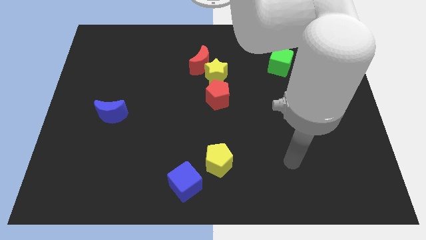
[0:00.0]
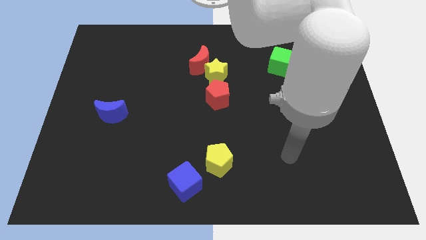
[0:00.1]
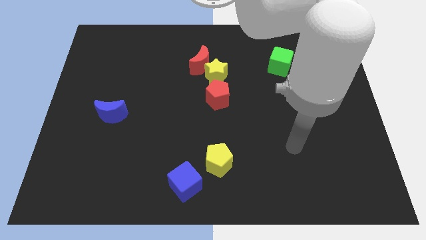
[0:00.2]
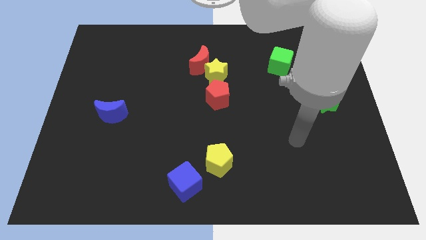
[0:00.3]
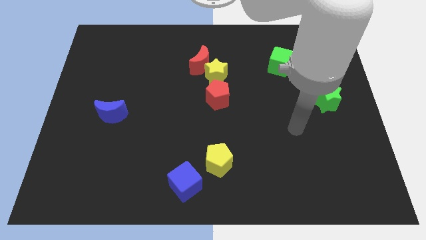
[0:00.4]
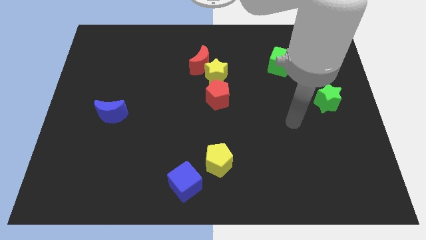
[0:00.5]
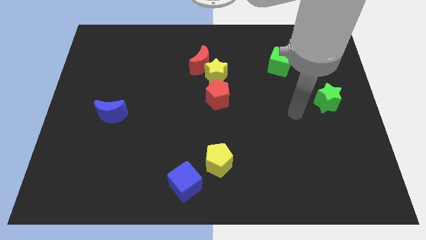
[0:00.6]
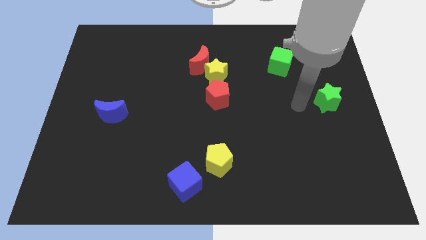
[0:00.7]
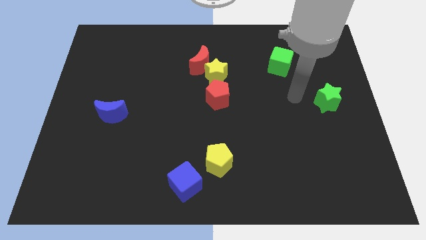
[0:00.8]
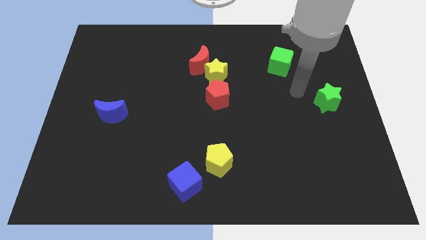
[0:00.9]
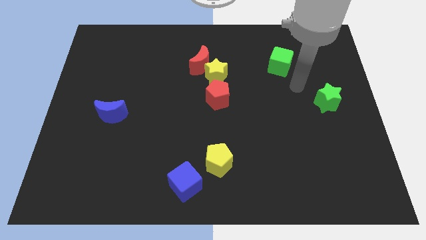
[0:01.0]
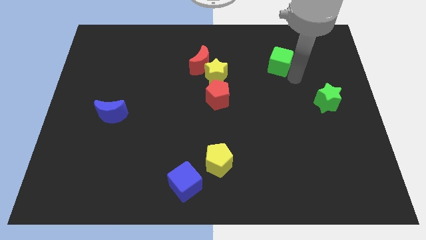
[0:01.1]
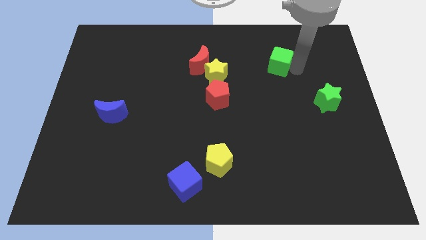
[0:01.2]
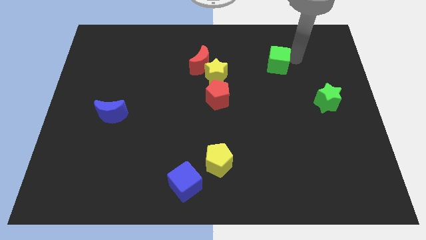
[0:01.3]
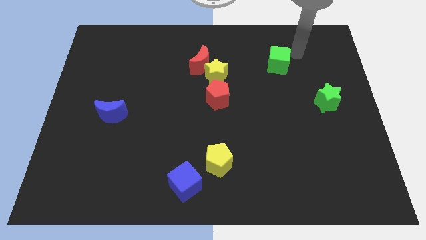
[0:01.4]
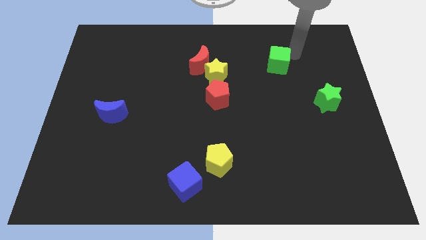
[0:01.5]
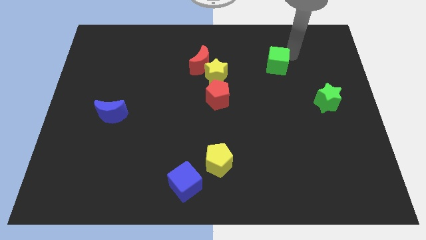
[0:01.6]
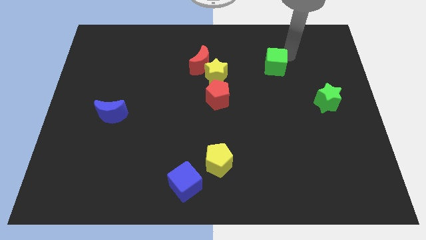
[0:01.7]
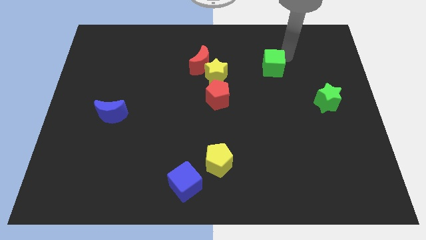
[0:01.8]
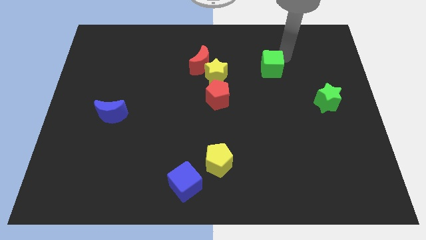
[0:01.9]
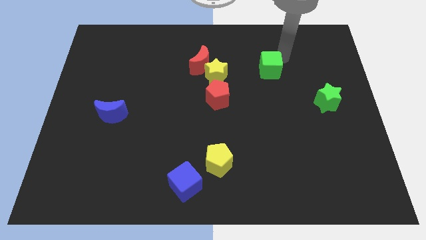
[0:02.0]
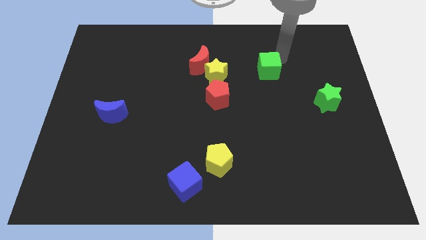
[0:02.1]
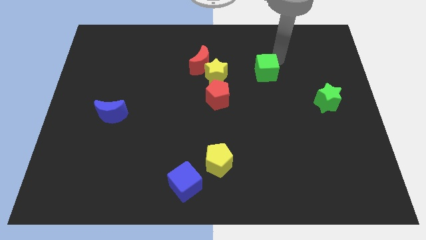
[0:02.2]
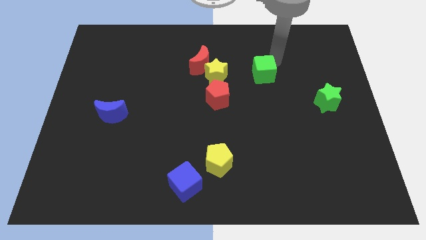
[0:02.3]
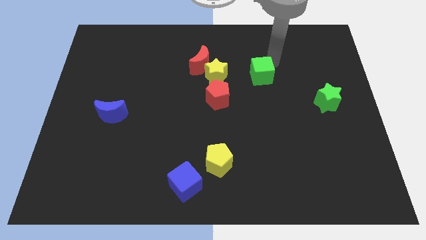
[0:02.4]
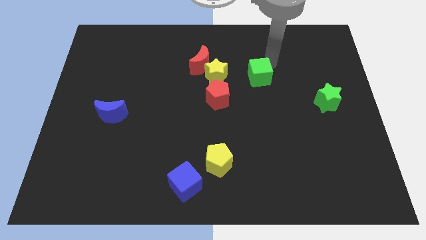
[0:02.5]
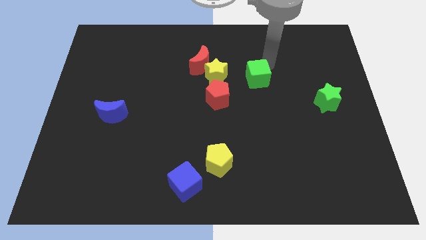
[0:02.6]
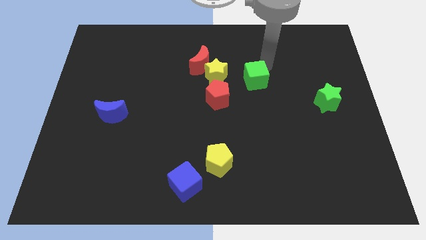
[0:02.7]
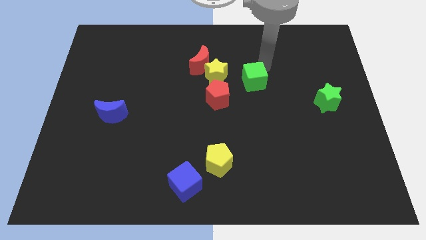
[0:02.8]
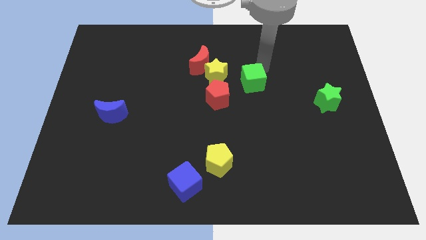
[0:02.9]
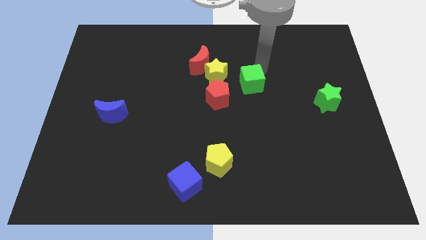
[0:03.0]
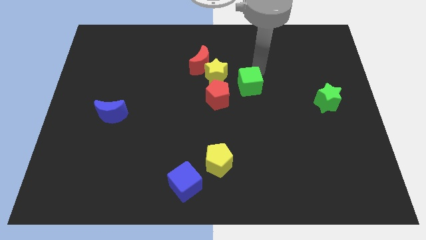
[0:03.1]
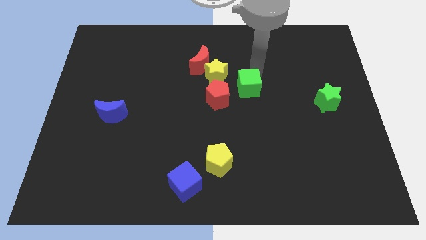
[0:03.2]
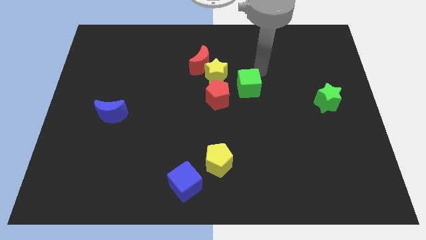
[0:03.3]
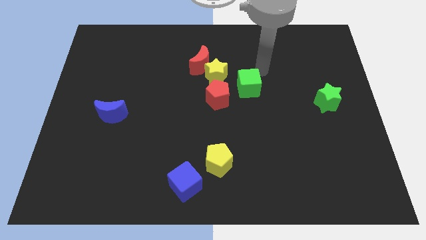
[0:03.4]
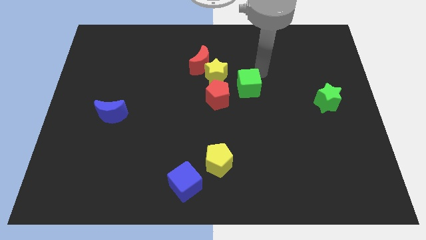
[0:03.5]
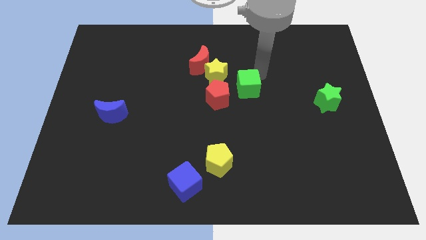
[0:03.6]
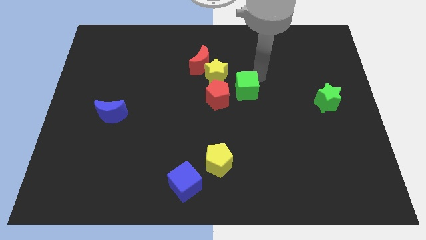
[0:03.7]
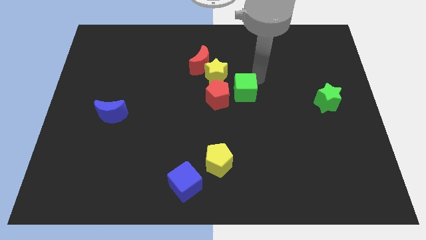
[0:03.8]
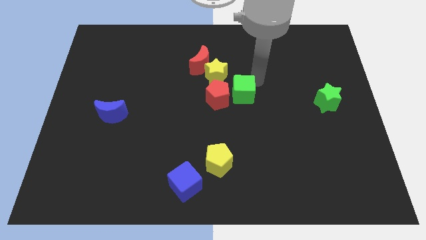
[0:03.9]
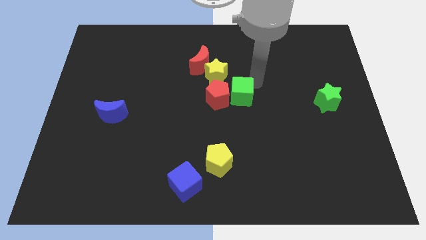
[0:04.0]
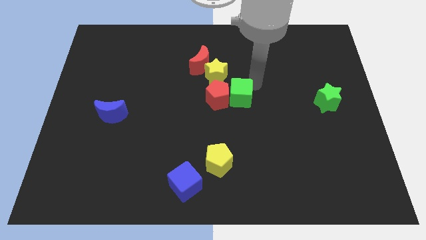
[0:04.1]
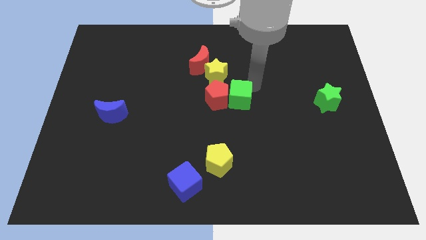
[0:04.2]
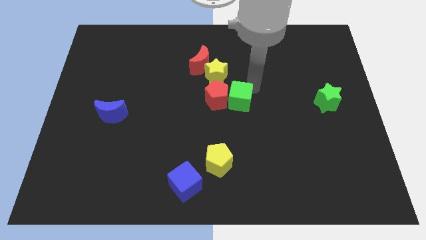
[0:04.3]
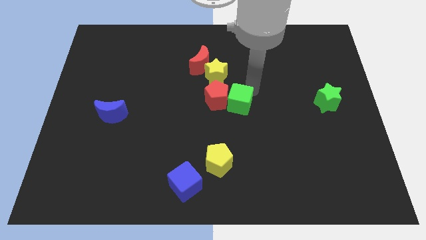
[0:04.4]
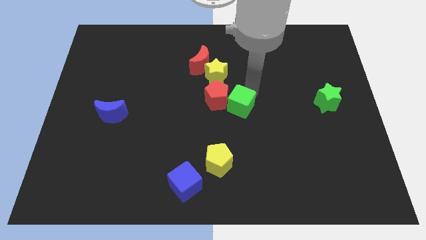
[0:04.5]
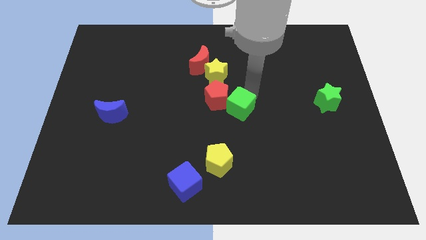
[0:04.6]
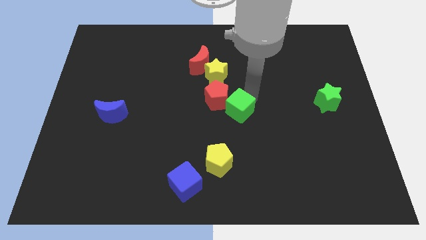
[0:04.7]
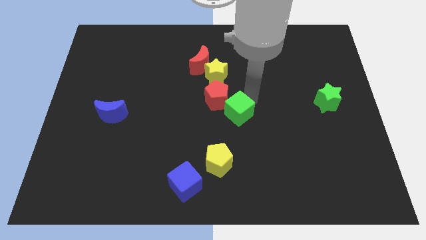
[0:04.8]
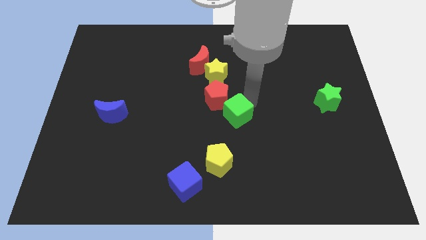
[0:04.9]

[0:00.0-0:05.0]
move the green cube above the yellow pentagon

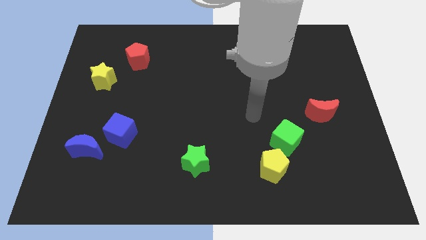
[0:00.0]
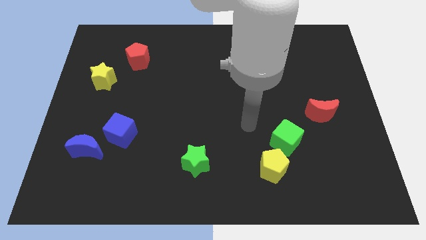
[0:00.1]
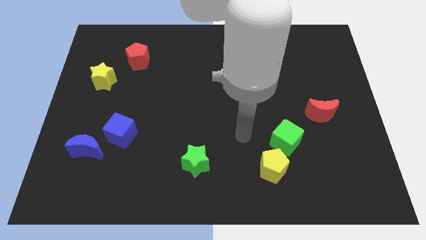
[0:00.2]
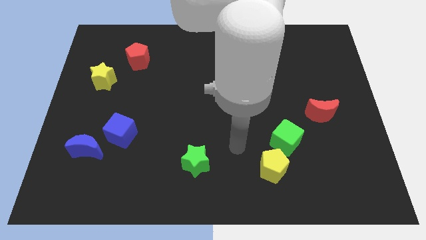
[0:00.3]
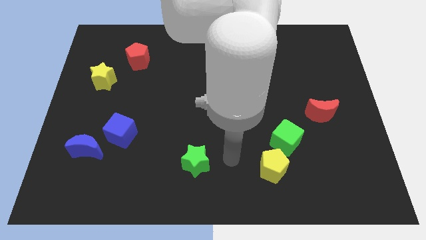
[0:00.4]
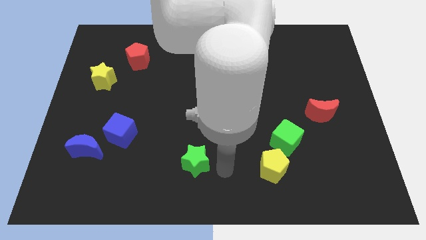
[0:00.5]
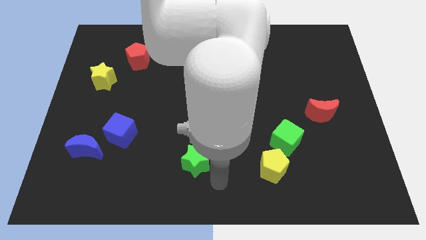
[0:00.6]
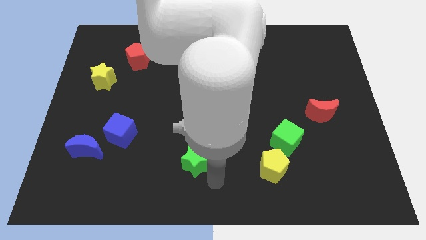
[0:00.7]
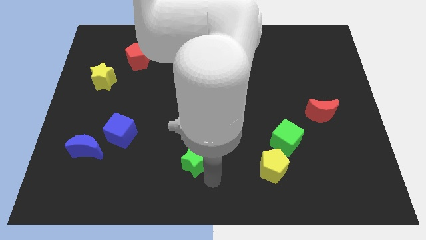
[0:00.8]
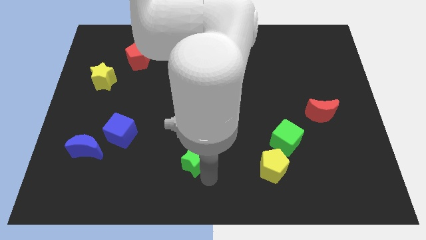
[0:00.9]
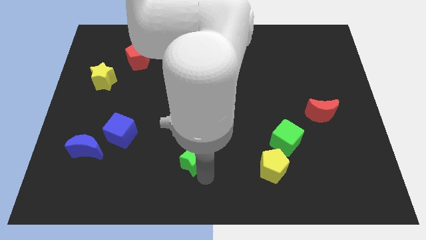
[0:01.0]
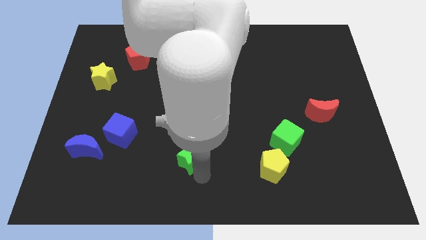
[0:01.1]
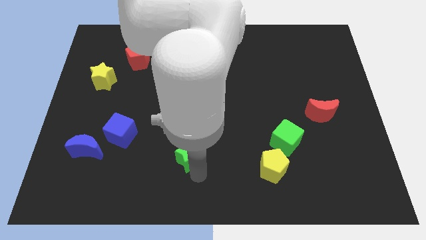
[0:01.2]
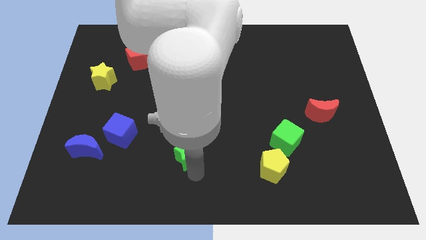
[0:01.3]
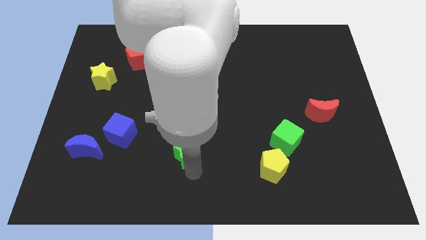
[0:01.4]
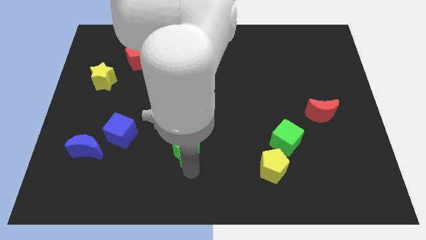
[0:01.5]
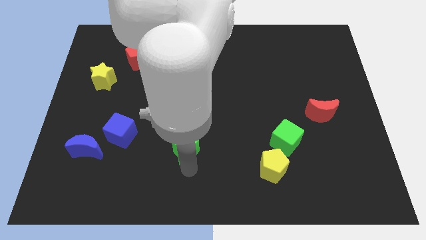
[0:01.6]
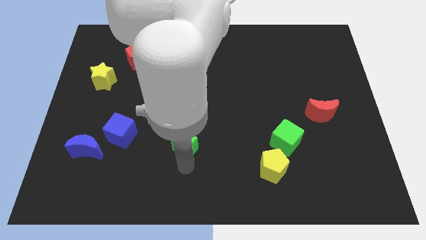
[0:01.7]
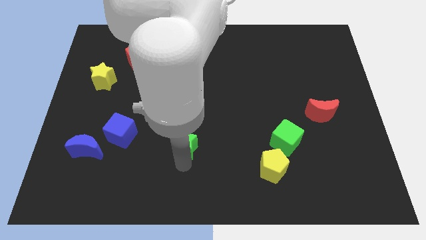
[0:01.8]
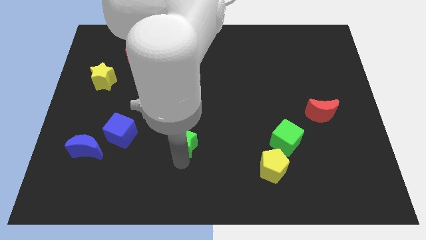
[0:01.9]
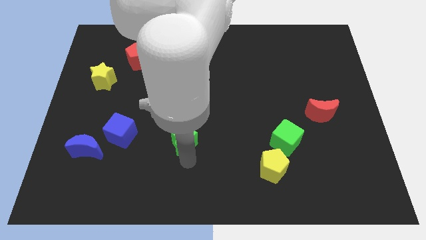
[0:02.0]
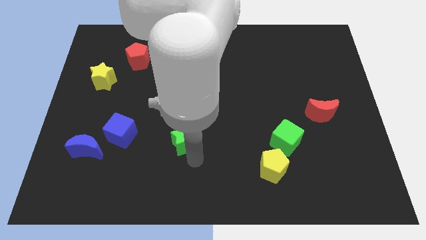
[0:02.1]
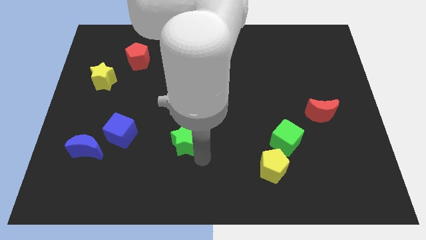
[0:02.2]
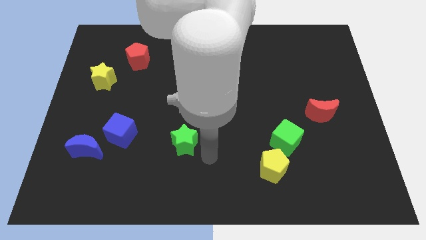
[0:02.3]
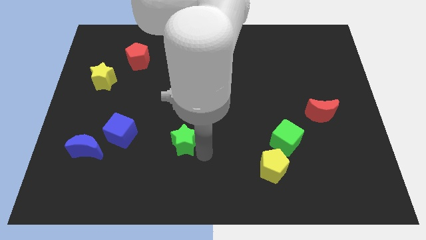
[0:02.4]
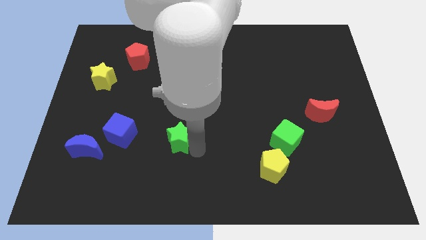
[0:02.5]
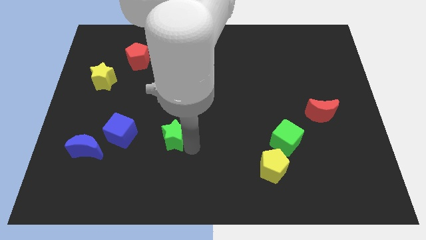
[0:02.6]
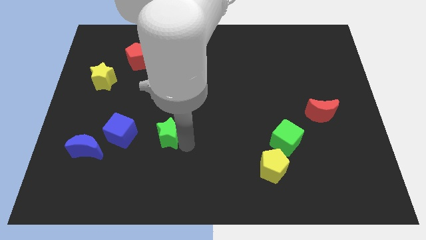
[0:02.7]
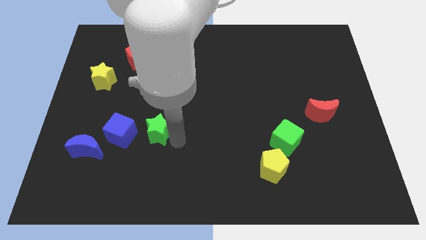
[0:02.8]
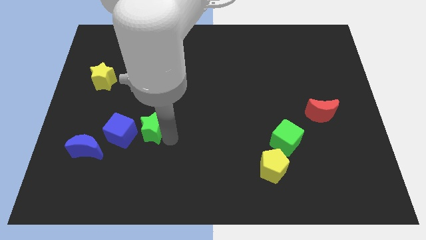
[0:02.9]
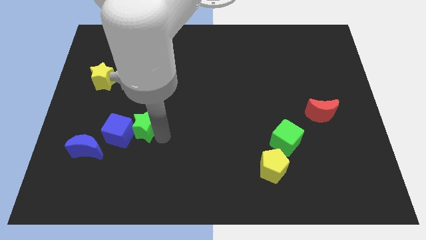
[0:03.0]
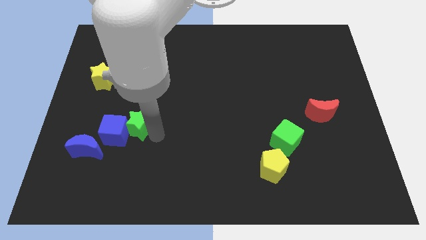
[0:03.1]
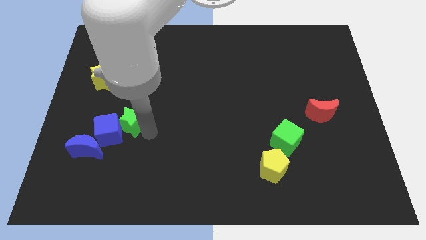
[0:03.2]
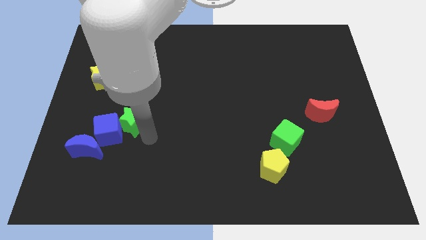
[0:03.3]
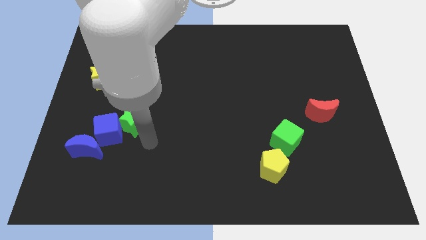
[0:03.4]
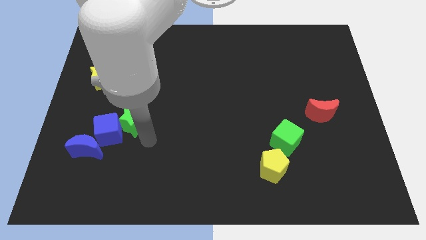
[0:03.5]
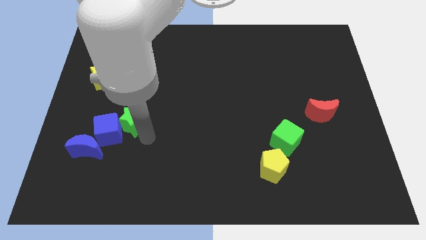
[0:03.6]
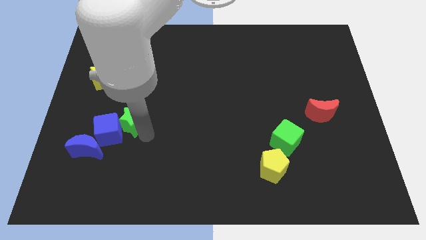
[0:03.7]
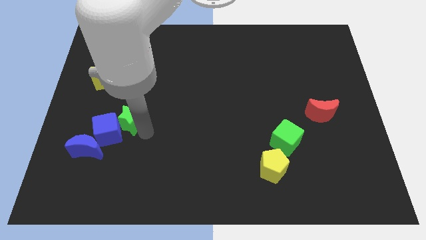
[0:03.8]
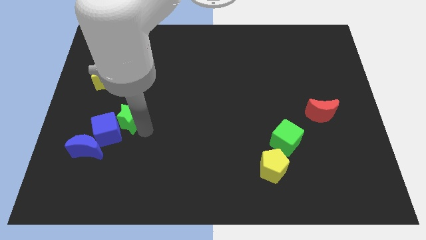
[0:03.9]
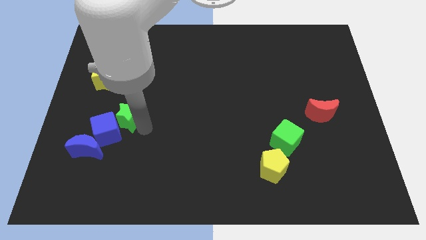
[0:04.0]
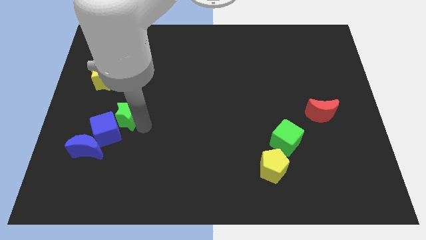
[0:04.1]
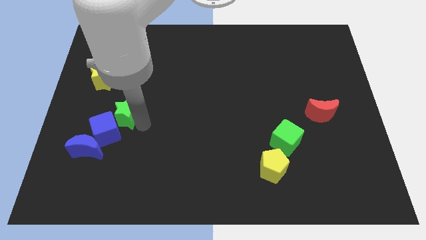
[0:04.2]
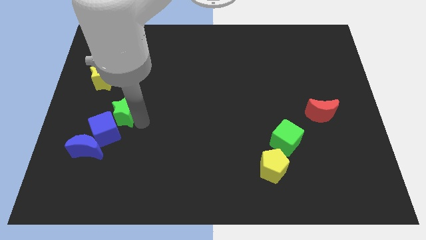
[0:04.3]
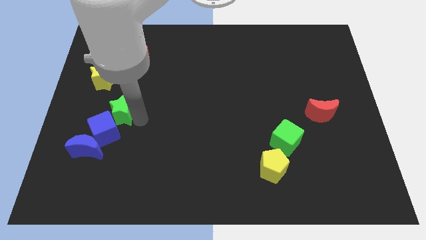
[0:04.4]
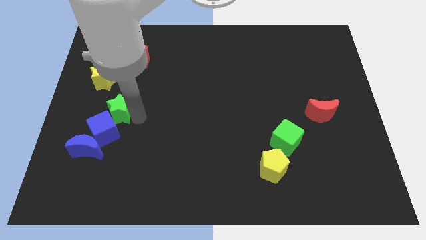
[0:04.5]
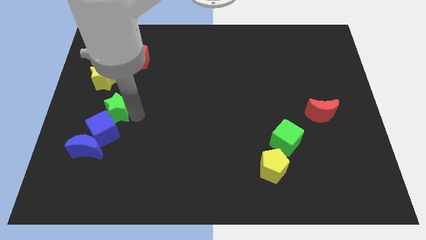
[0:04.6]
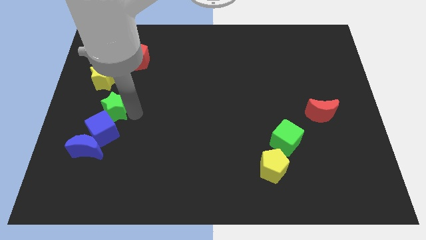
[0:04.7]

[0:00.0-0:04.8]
slide the green star to the top side of the blue moon
